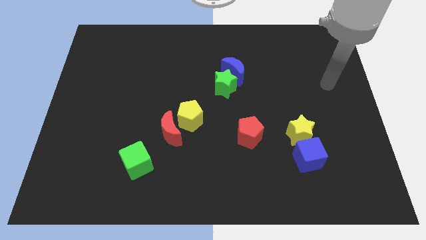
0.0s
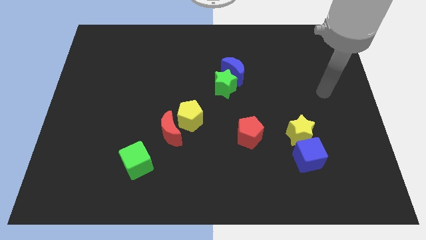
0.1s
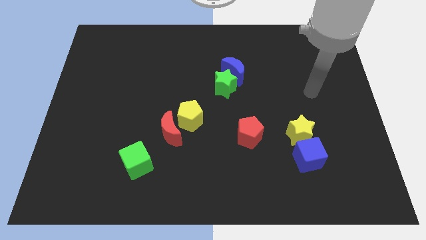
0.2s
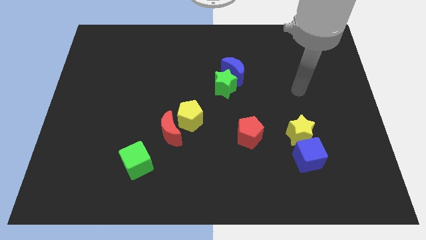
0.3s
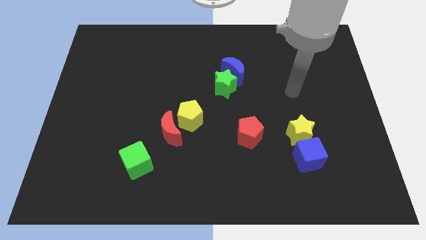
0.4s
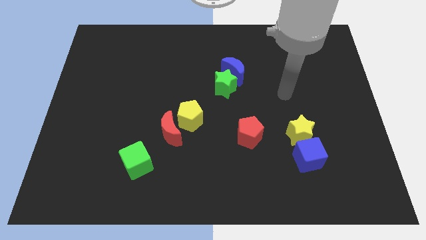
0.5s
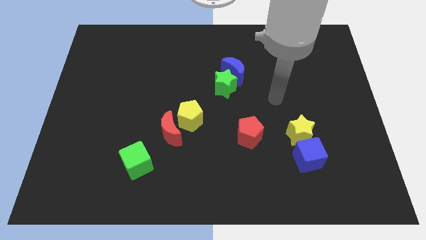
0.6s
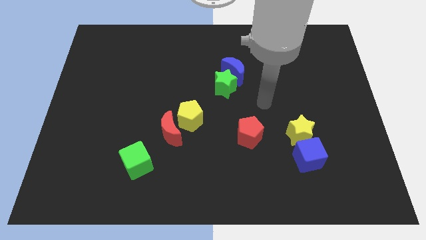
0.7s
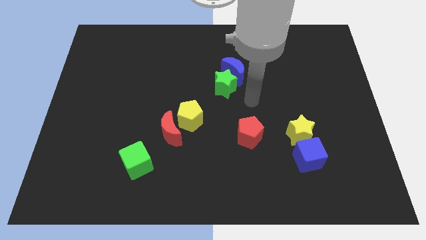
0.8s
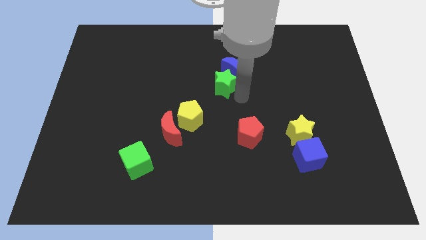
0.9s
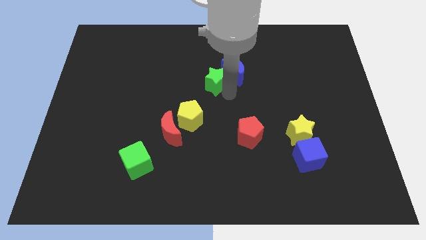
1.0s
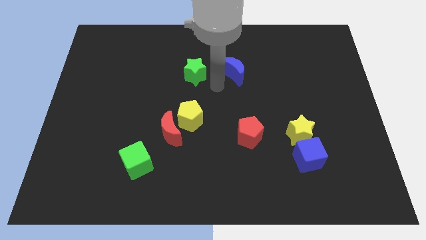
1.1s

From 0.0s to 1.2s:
move the blue moon away from the green star

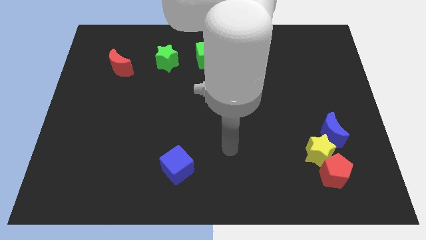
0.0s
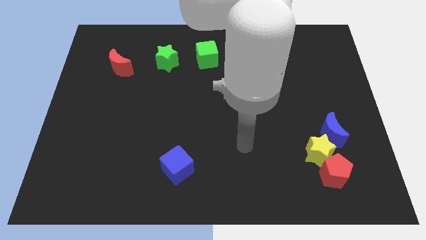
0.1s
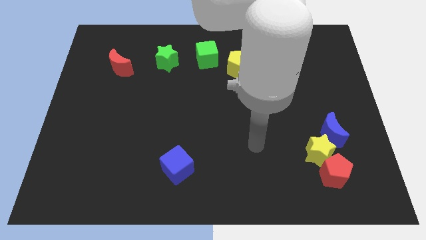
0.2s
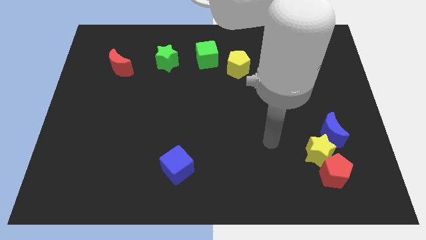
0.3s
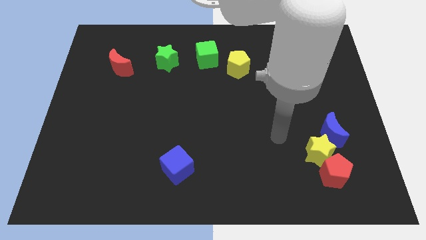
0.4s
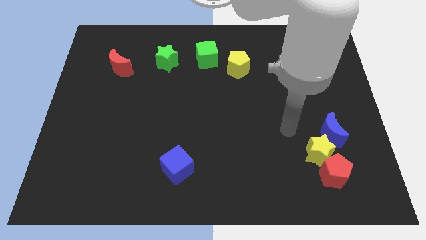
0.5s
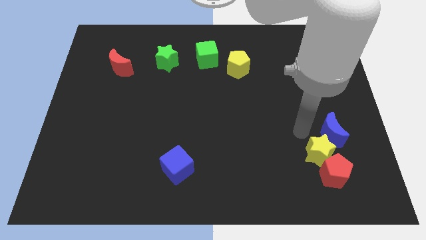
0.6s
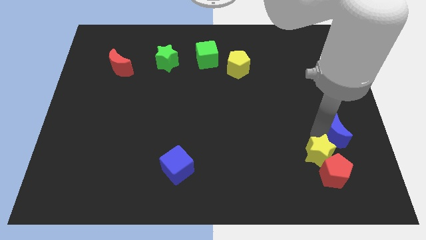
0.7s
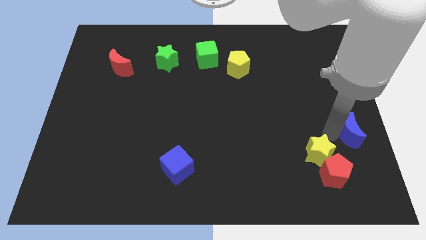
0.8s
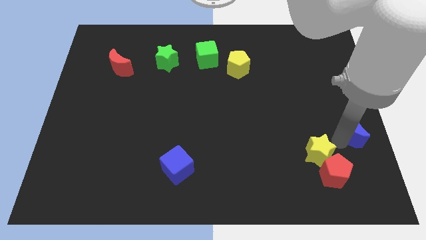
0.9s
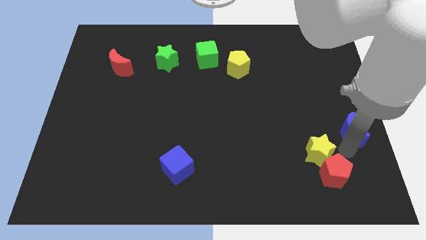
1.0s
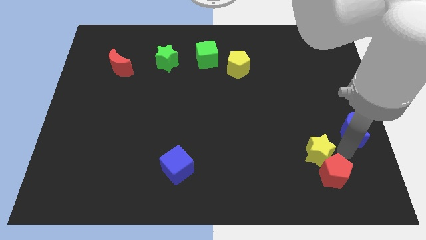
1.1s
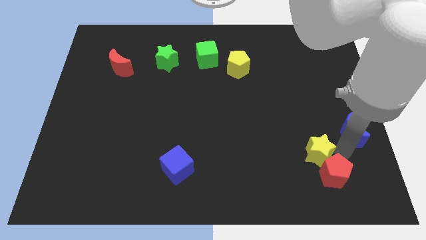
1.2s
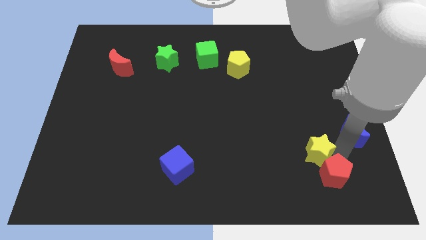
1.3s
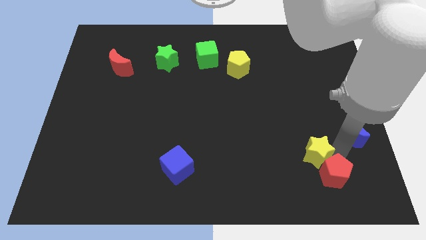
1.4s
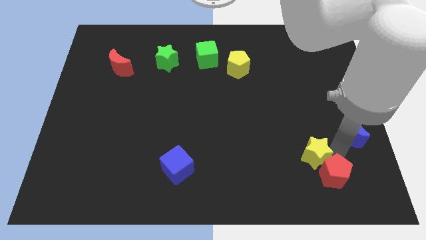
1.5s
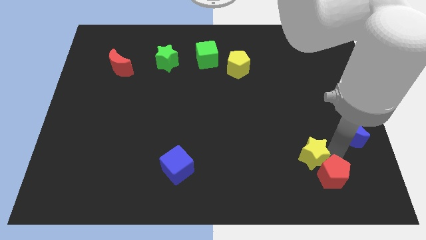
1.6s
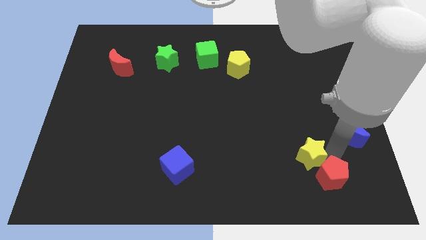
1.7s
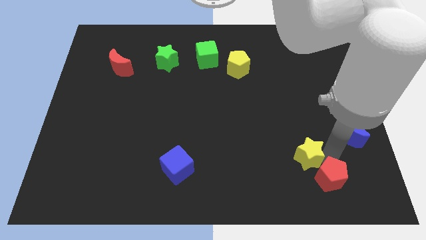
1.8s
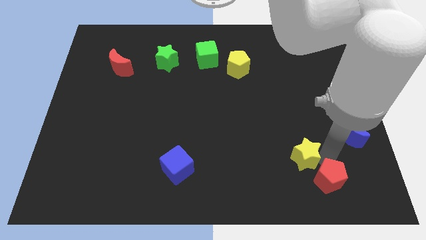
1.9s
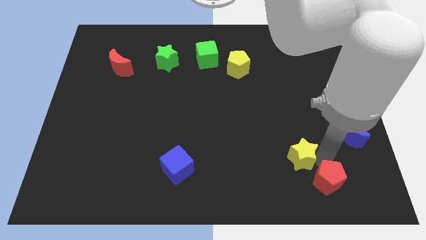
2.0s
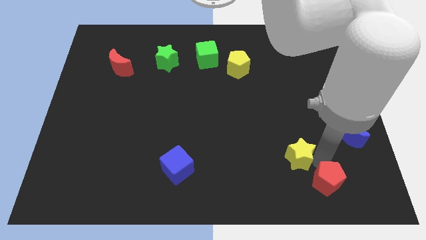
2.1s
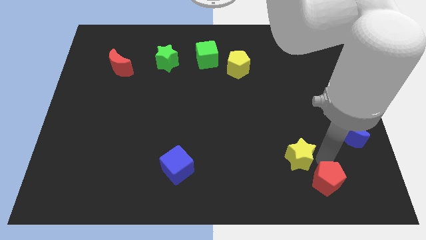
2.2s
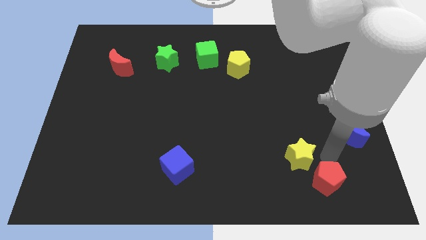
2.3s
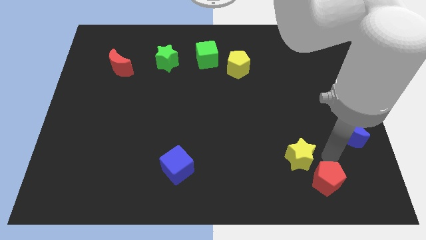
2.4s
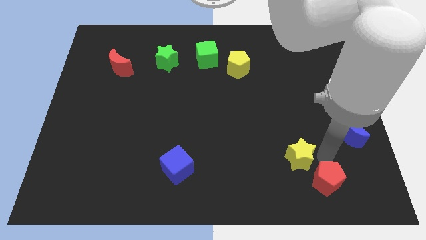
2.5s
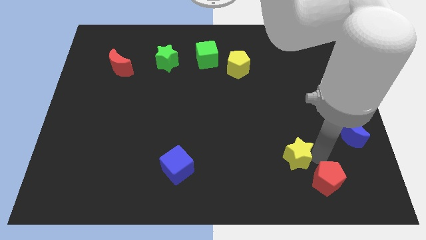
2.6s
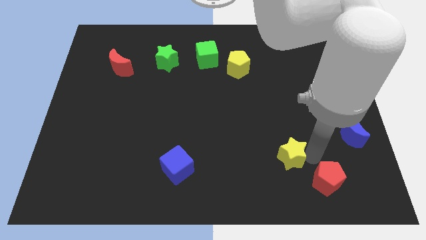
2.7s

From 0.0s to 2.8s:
separate the yellow star from the red pentagon and blue moon

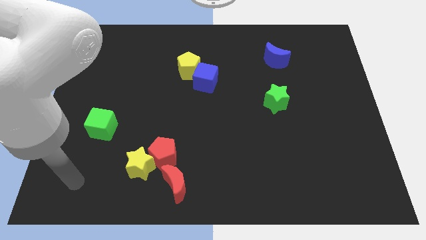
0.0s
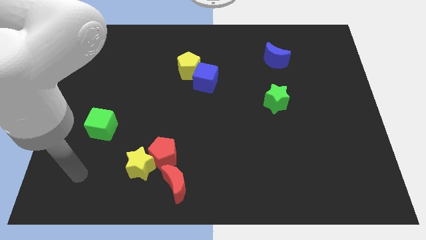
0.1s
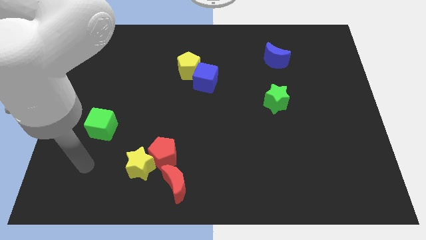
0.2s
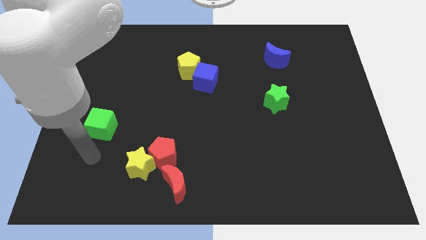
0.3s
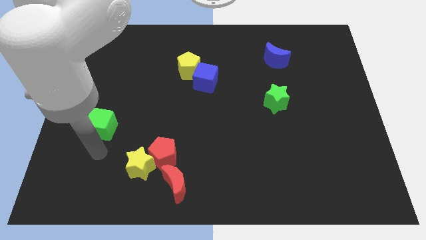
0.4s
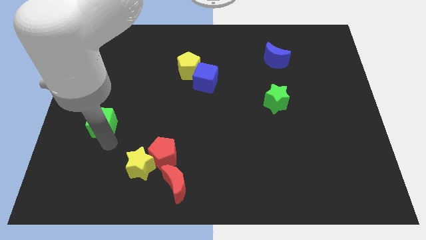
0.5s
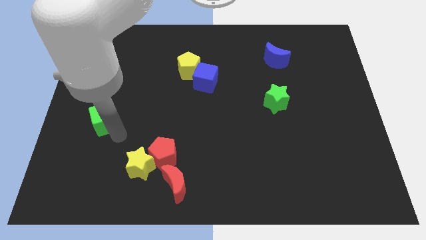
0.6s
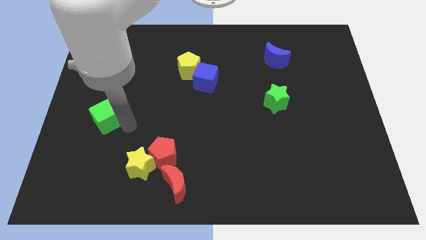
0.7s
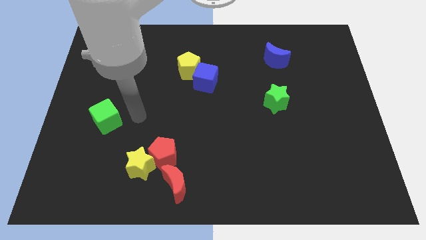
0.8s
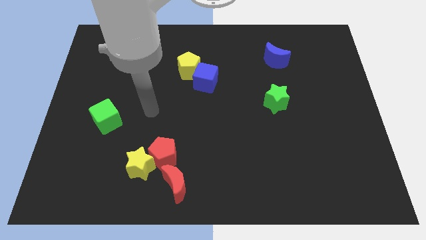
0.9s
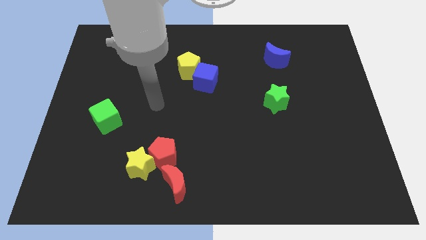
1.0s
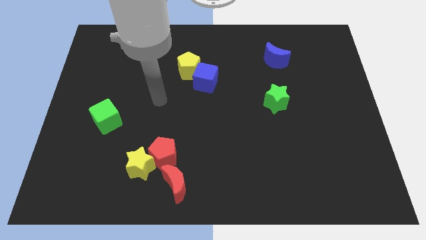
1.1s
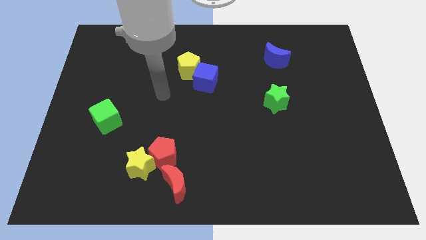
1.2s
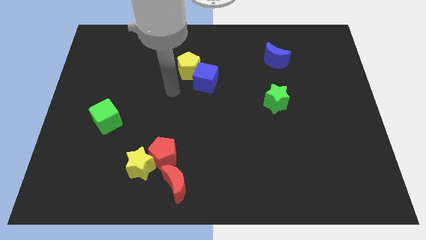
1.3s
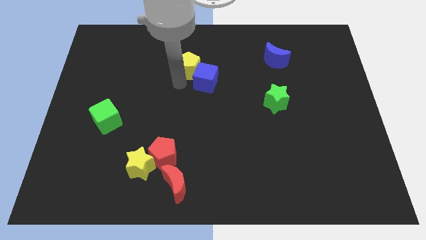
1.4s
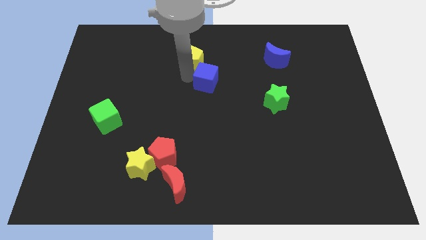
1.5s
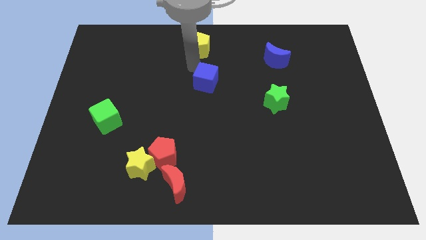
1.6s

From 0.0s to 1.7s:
pull the blue cube apart from the yellow pentagon

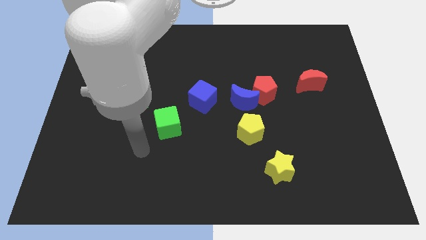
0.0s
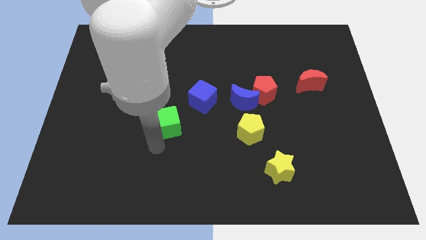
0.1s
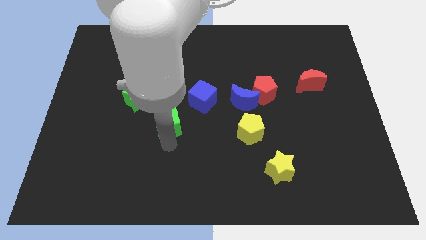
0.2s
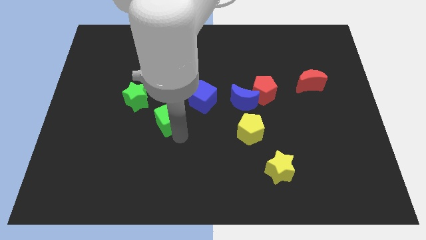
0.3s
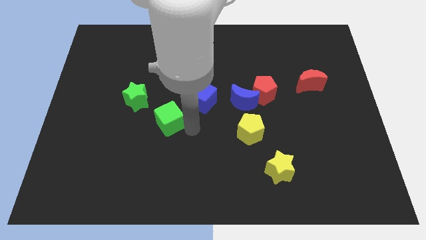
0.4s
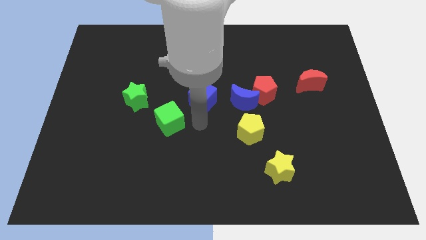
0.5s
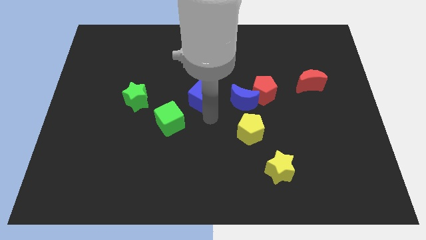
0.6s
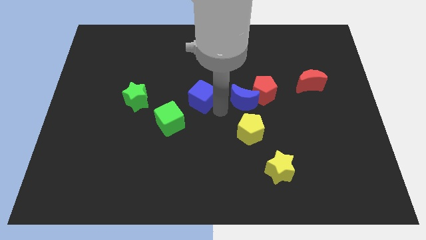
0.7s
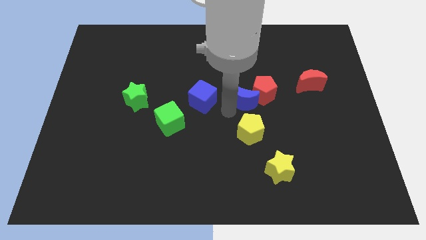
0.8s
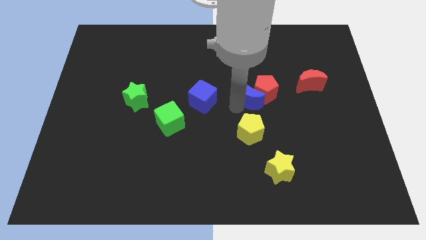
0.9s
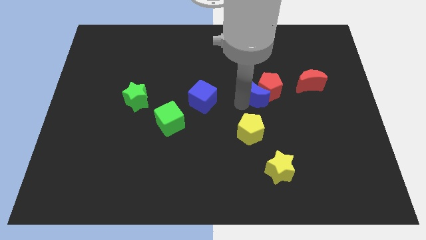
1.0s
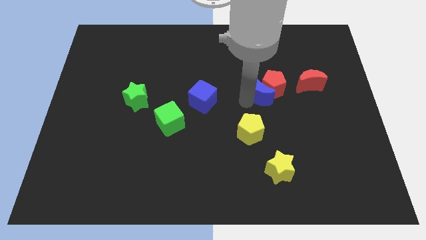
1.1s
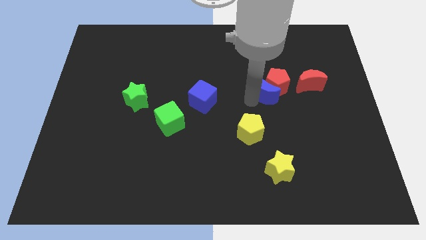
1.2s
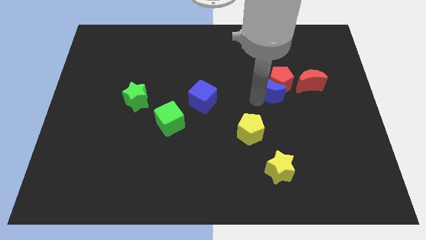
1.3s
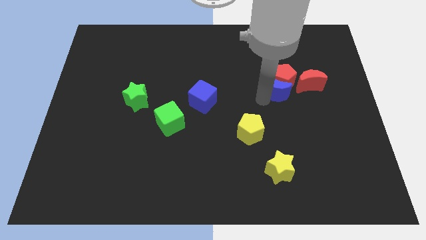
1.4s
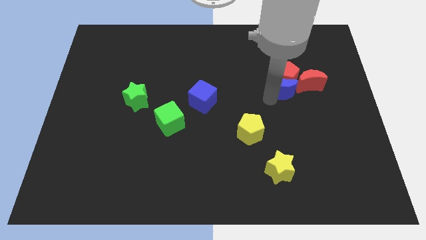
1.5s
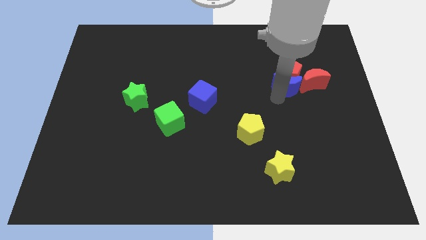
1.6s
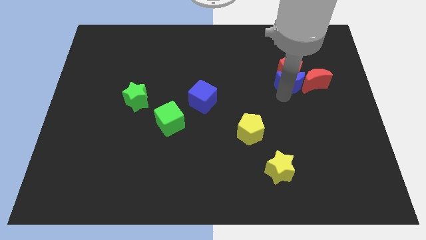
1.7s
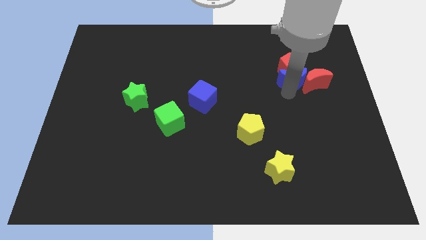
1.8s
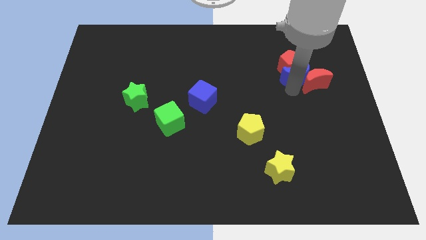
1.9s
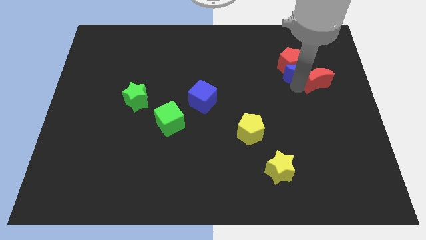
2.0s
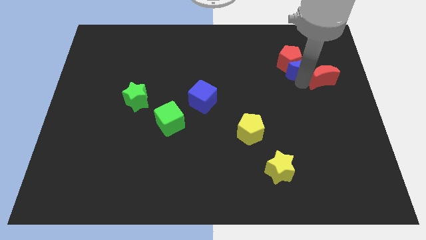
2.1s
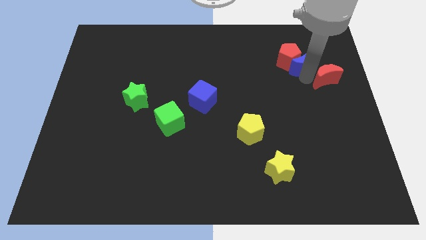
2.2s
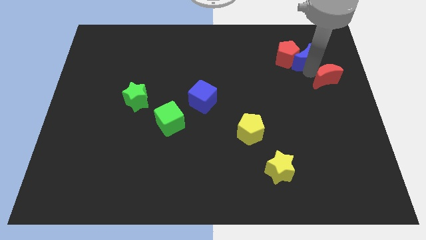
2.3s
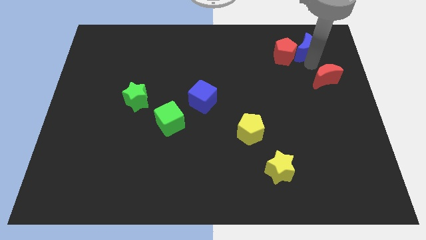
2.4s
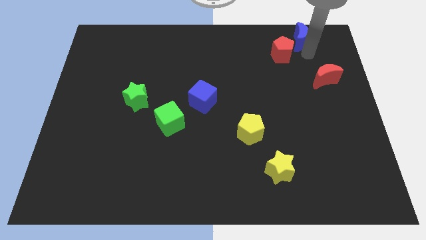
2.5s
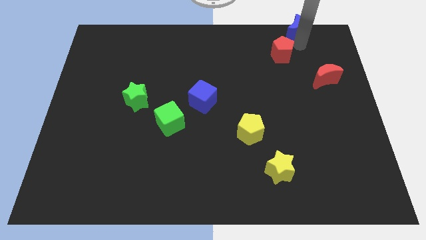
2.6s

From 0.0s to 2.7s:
separate the red pentagon from the blue moon

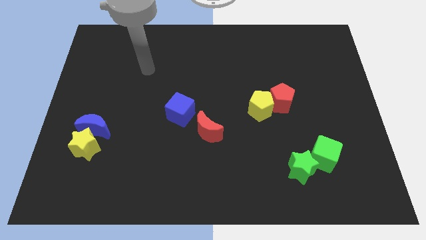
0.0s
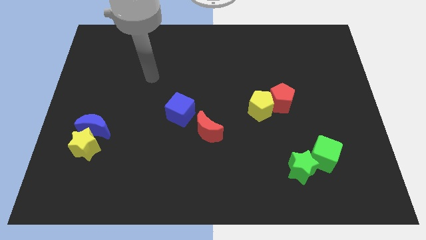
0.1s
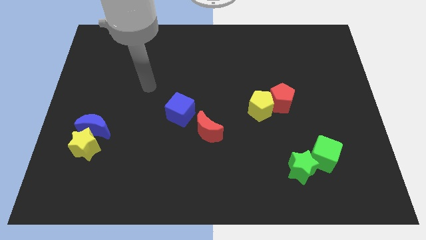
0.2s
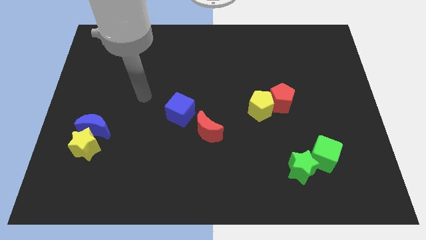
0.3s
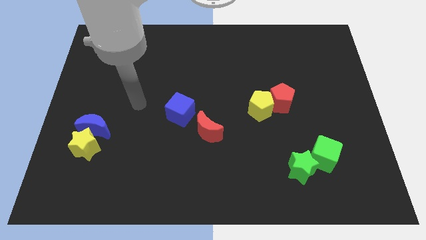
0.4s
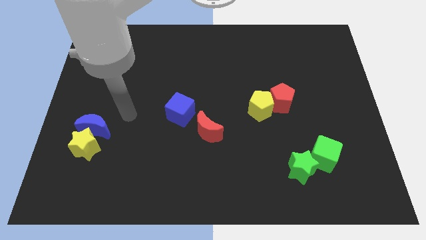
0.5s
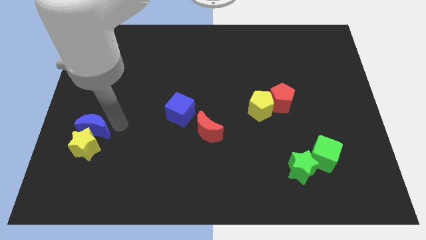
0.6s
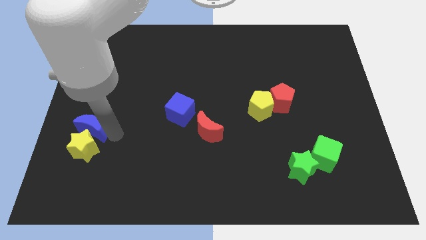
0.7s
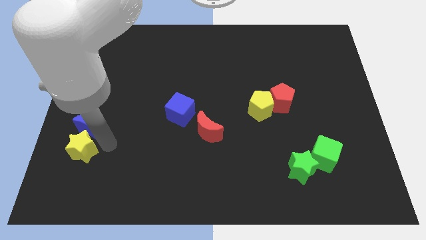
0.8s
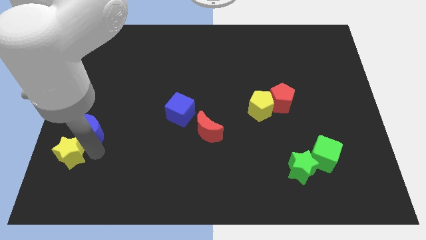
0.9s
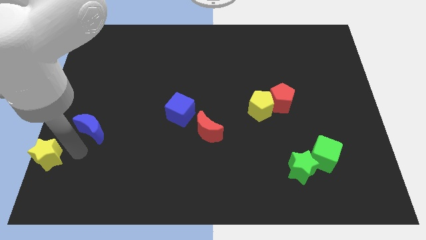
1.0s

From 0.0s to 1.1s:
pull the blue moon apart from the yellow star
